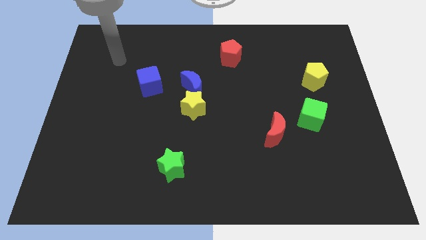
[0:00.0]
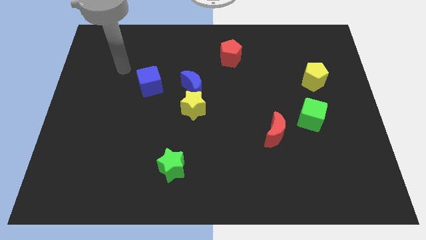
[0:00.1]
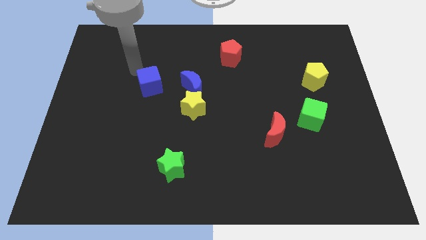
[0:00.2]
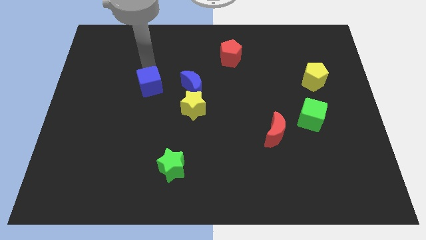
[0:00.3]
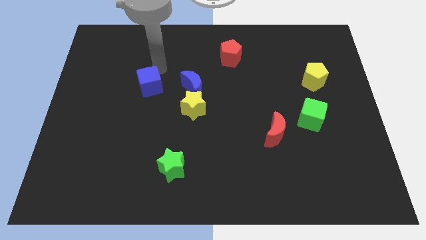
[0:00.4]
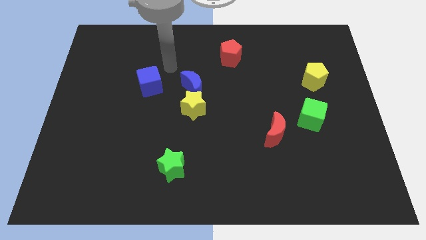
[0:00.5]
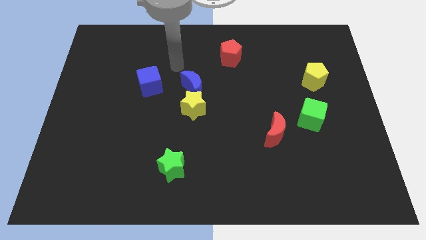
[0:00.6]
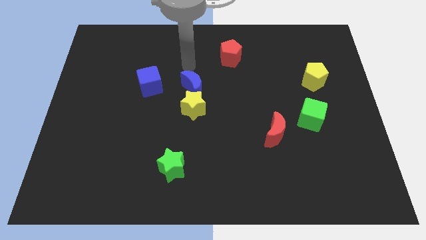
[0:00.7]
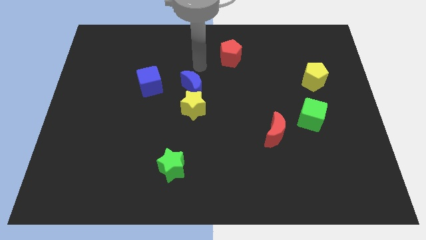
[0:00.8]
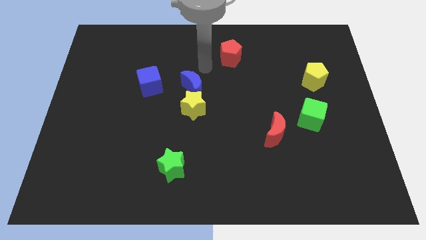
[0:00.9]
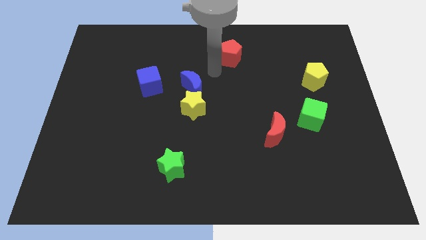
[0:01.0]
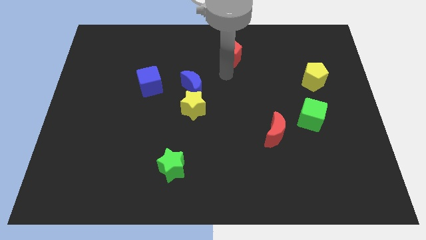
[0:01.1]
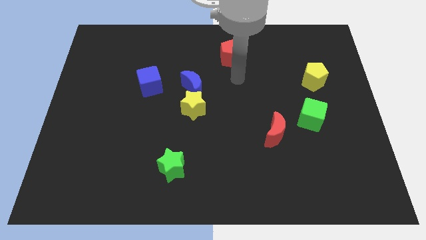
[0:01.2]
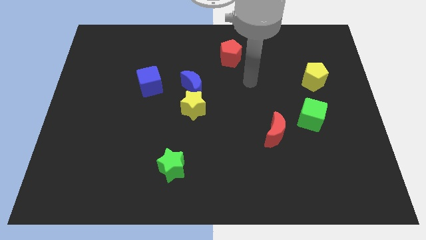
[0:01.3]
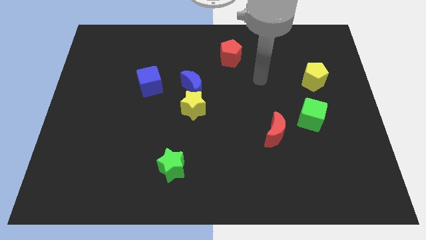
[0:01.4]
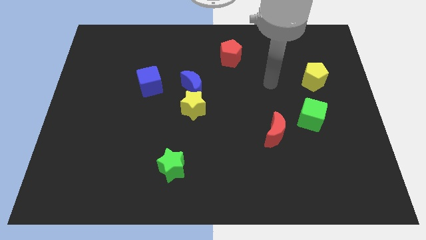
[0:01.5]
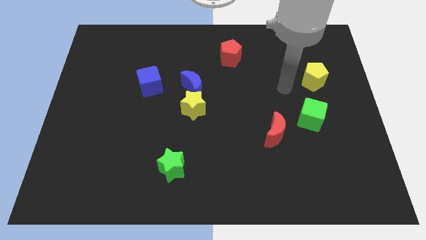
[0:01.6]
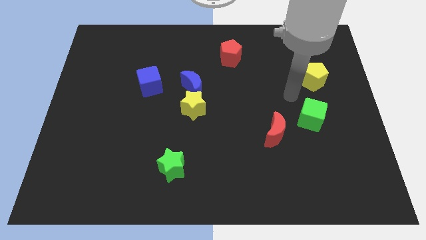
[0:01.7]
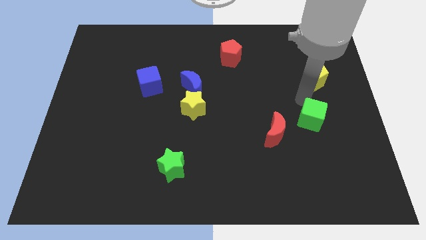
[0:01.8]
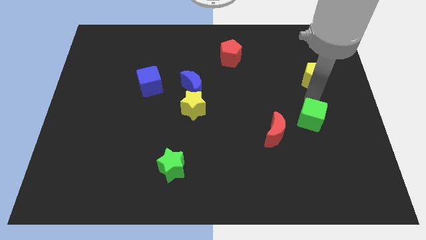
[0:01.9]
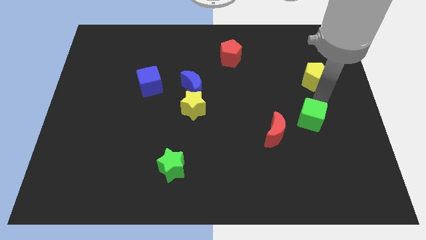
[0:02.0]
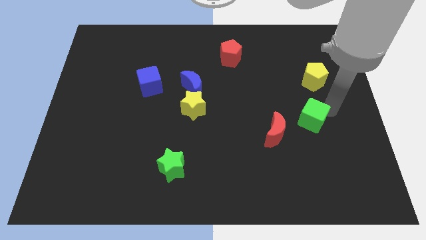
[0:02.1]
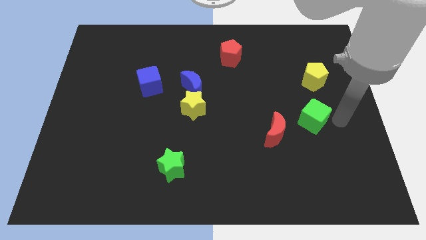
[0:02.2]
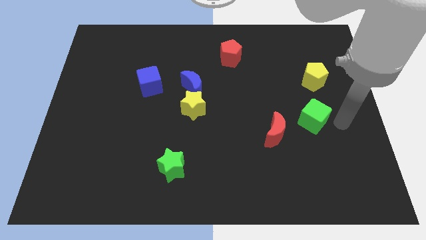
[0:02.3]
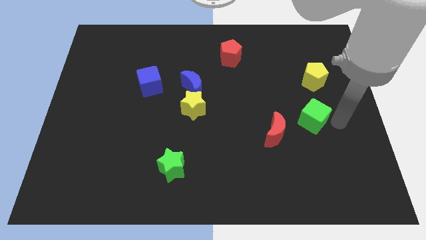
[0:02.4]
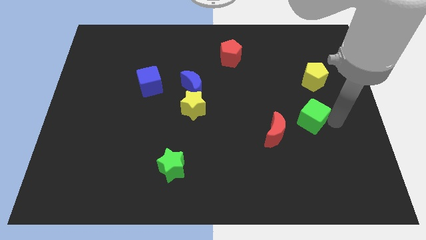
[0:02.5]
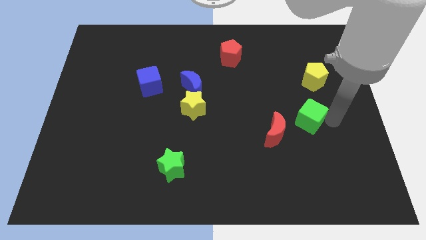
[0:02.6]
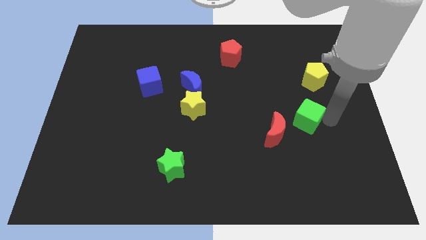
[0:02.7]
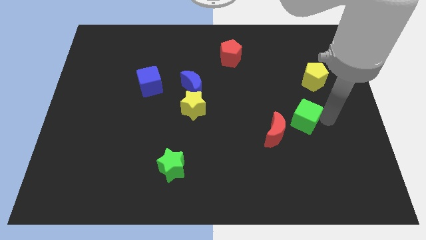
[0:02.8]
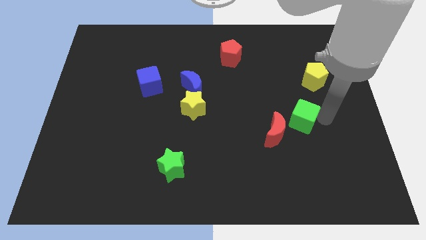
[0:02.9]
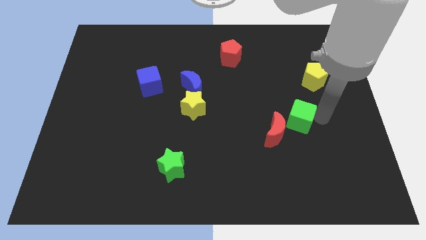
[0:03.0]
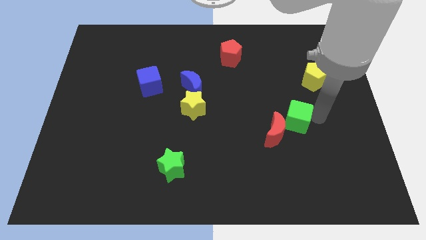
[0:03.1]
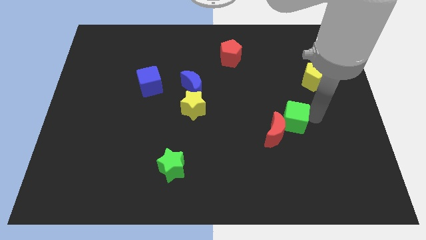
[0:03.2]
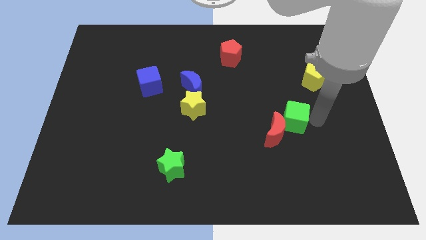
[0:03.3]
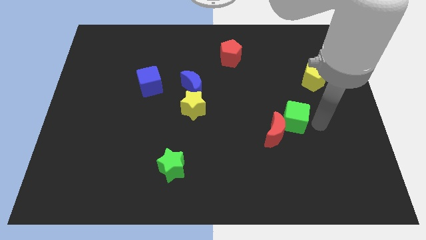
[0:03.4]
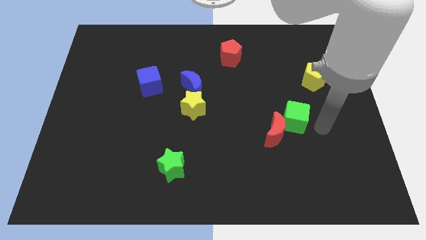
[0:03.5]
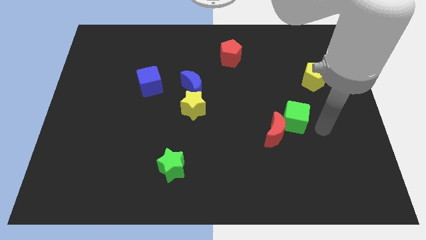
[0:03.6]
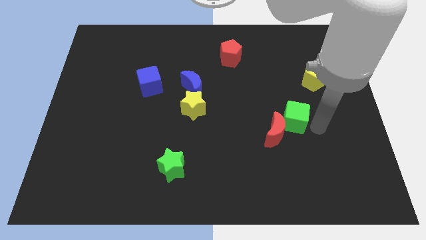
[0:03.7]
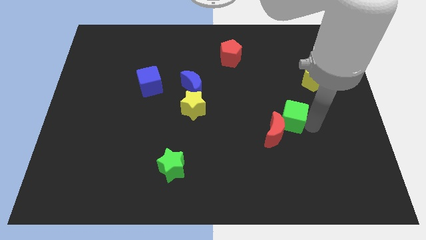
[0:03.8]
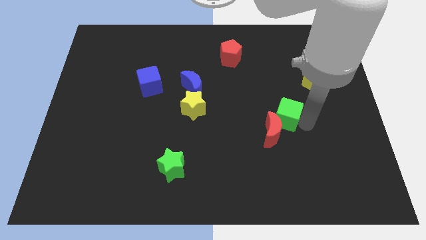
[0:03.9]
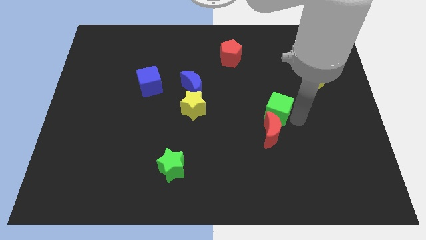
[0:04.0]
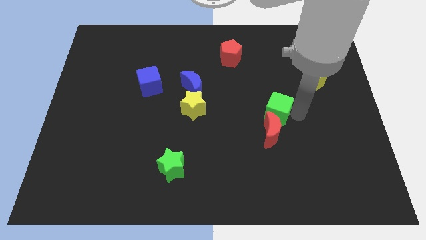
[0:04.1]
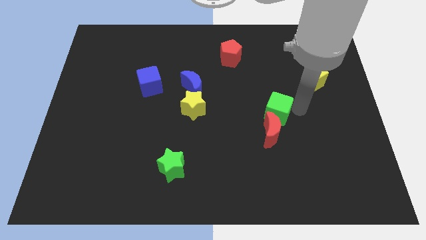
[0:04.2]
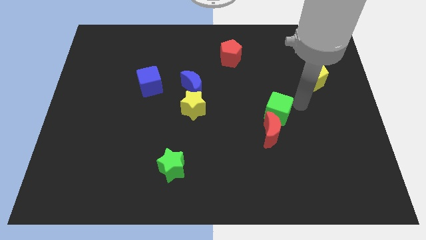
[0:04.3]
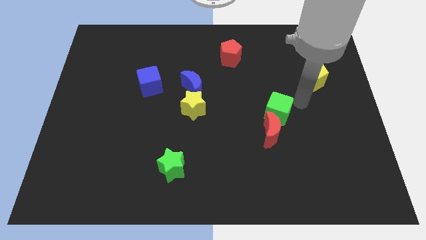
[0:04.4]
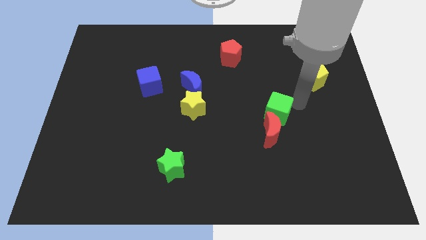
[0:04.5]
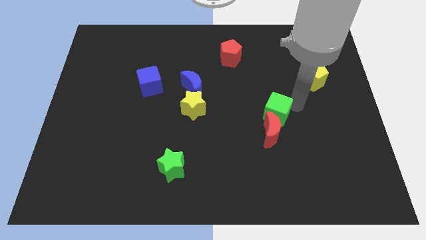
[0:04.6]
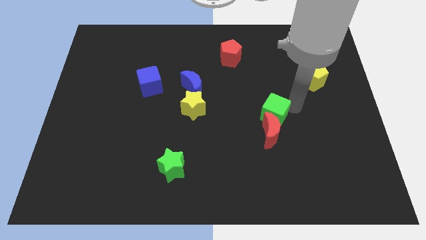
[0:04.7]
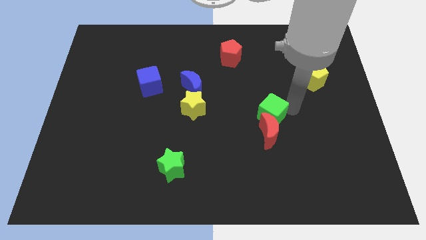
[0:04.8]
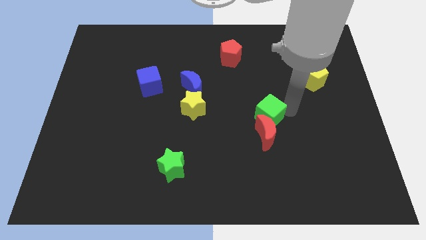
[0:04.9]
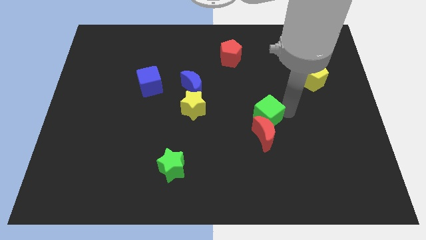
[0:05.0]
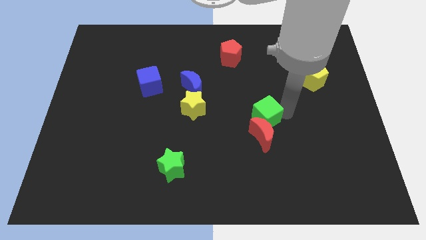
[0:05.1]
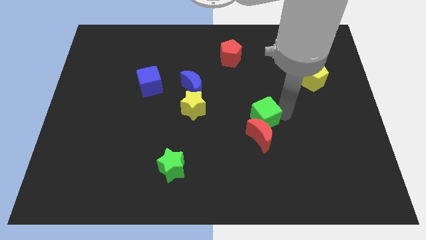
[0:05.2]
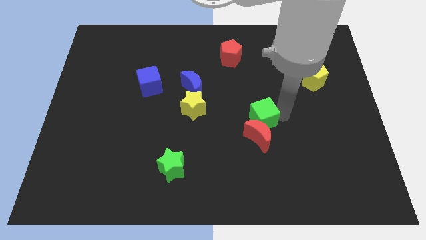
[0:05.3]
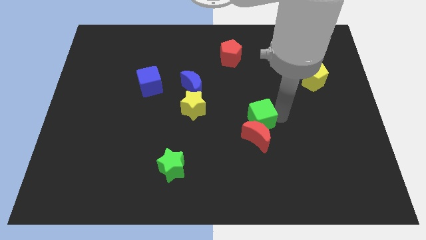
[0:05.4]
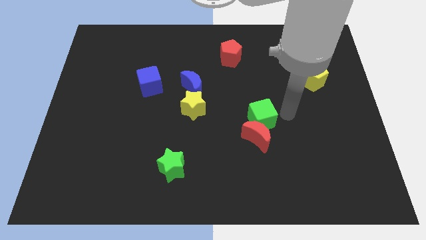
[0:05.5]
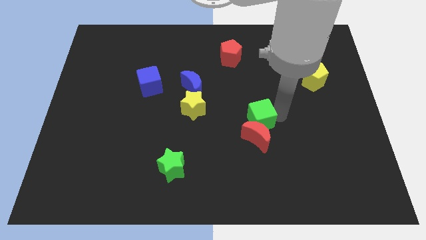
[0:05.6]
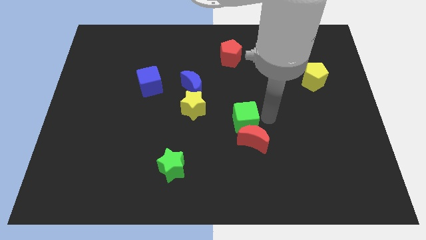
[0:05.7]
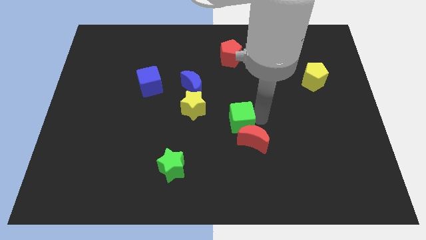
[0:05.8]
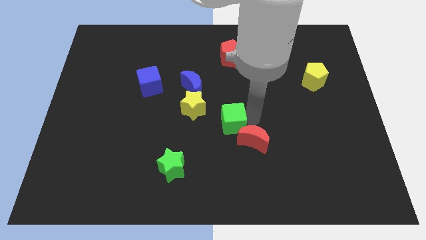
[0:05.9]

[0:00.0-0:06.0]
slide the green cube to the bottom right of the yellow star

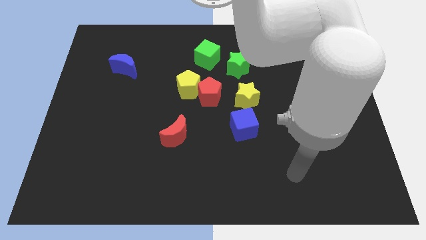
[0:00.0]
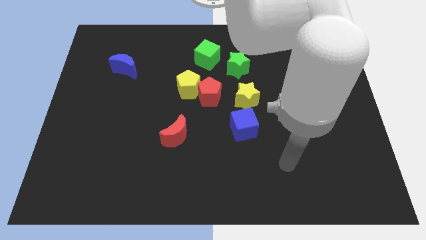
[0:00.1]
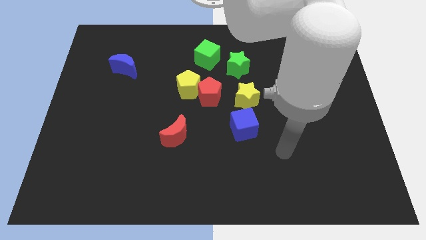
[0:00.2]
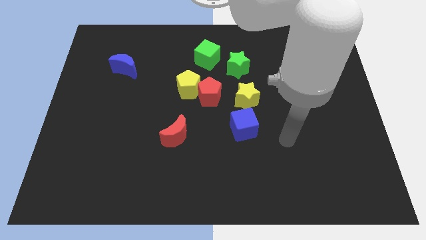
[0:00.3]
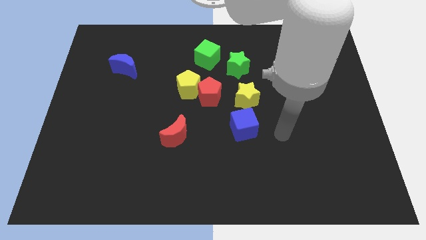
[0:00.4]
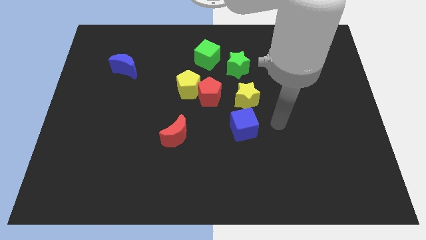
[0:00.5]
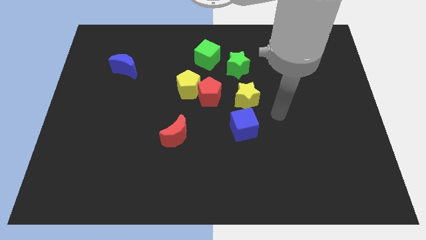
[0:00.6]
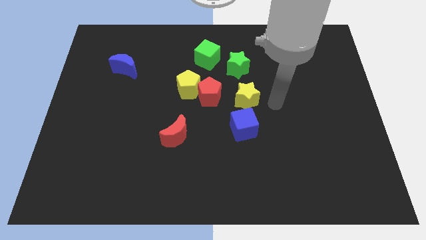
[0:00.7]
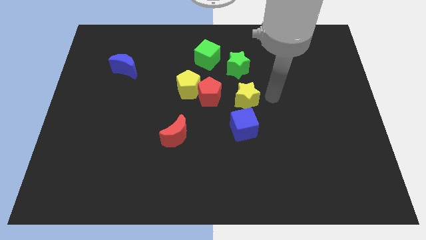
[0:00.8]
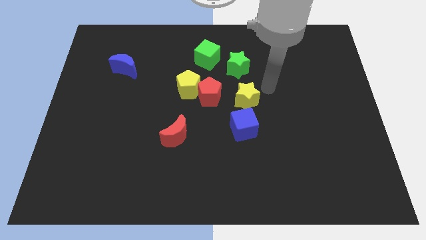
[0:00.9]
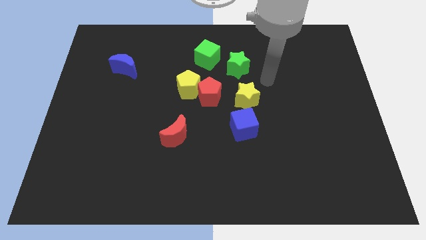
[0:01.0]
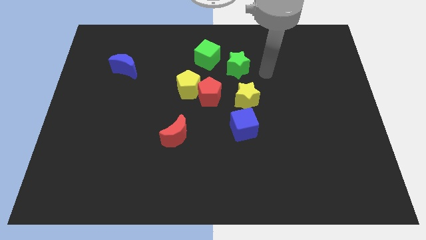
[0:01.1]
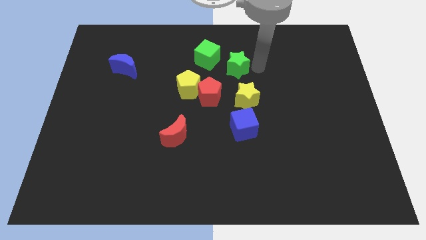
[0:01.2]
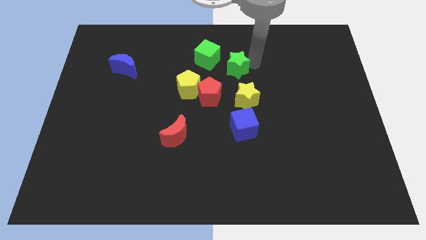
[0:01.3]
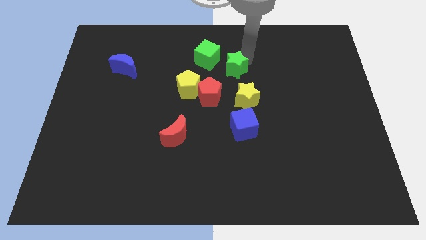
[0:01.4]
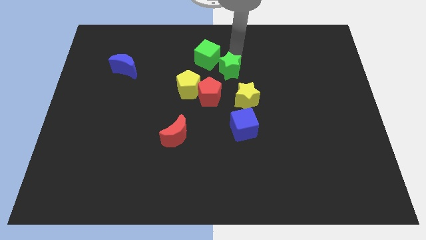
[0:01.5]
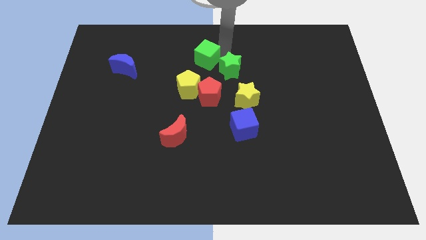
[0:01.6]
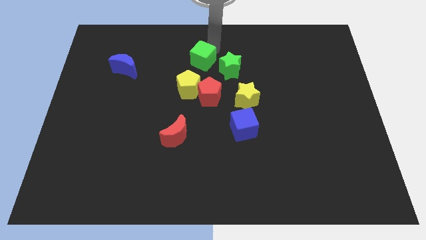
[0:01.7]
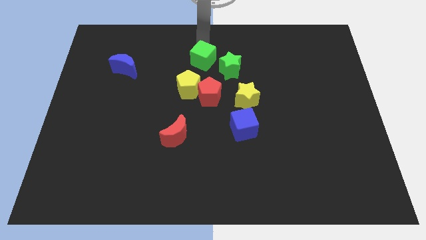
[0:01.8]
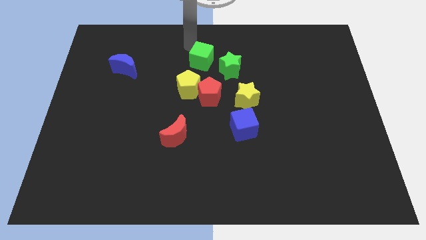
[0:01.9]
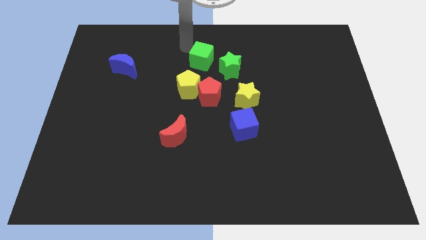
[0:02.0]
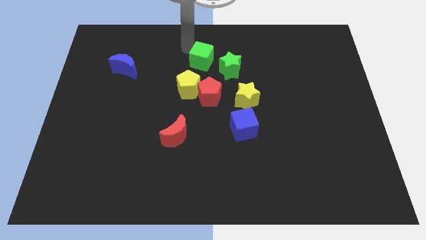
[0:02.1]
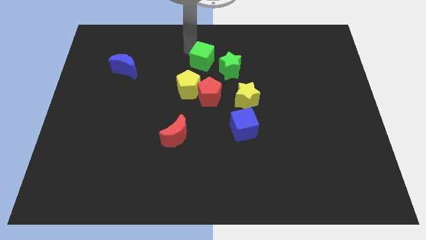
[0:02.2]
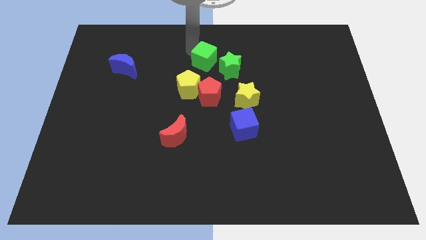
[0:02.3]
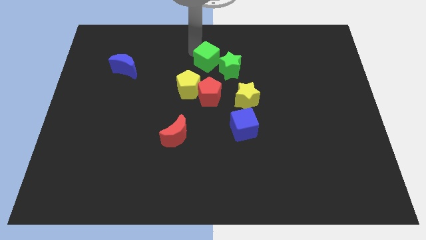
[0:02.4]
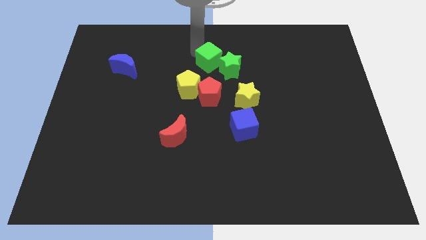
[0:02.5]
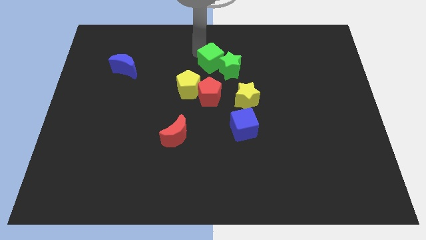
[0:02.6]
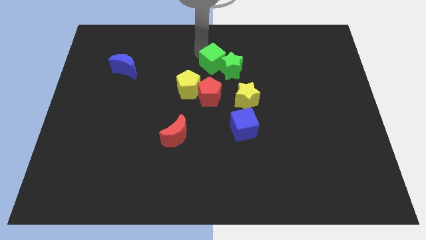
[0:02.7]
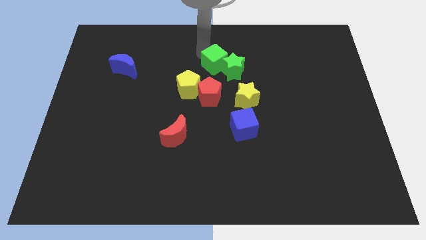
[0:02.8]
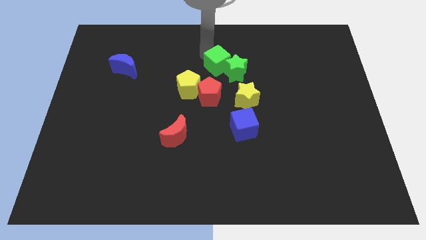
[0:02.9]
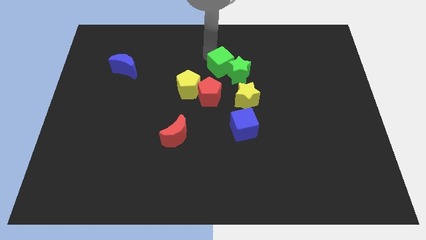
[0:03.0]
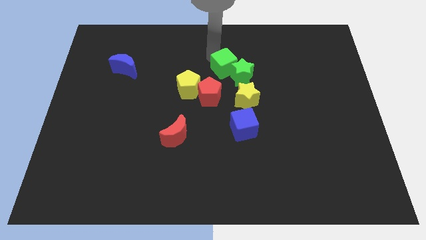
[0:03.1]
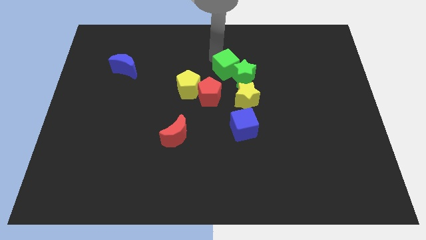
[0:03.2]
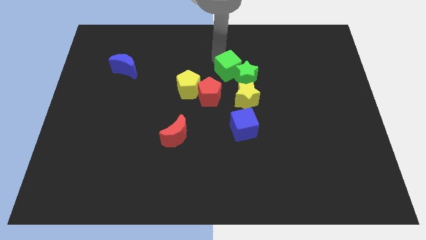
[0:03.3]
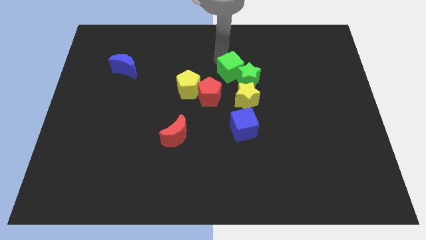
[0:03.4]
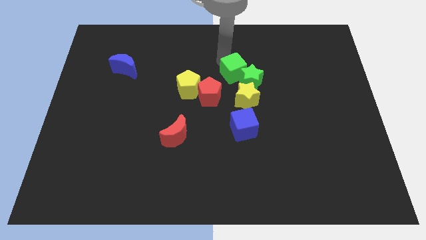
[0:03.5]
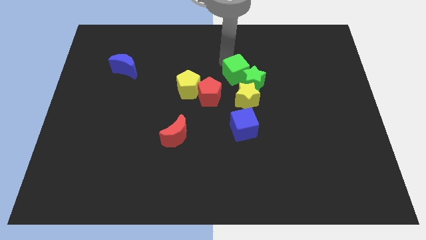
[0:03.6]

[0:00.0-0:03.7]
slide the green cube to the right side of the yellow pentagon
